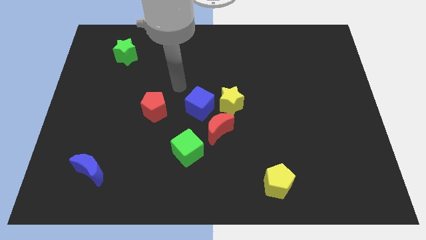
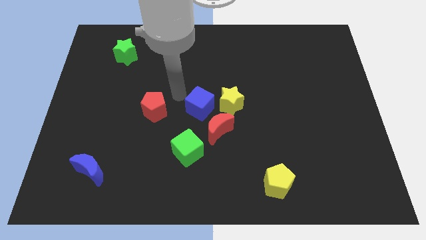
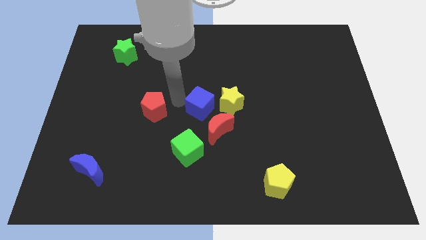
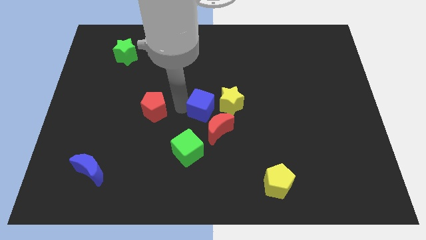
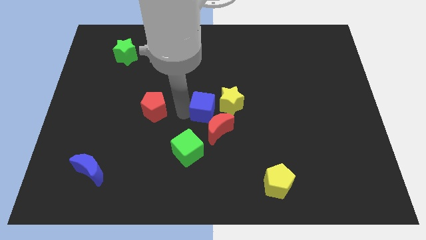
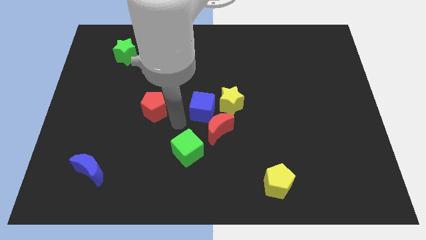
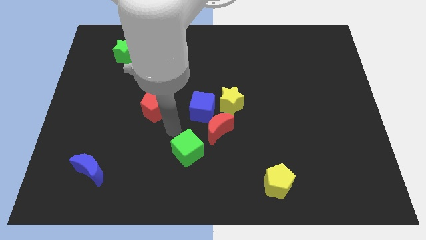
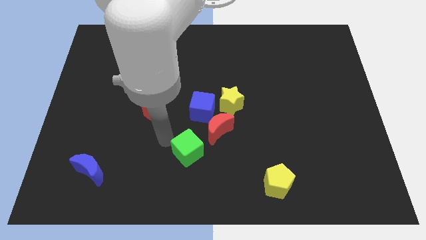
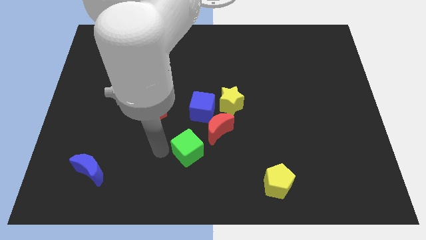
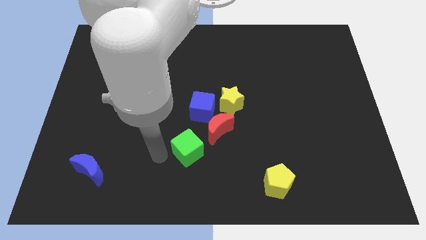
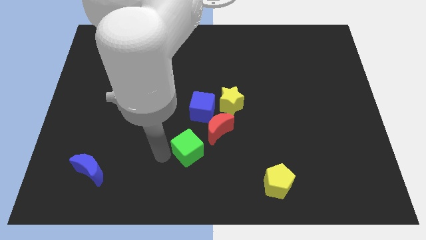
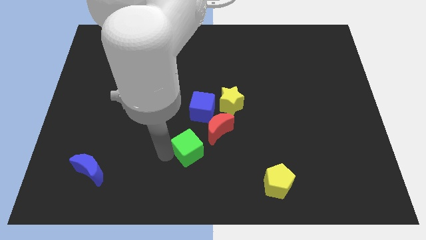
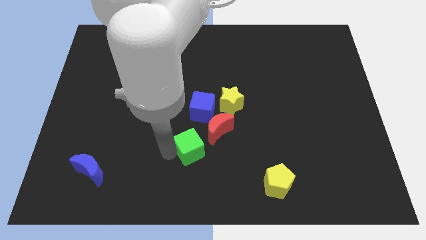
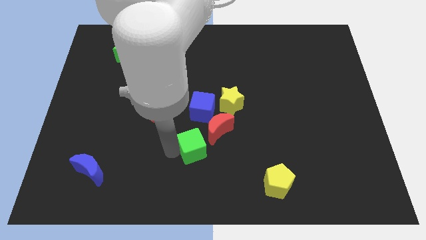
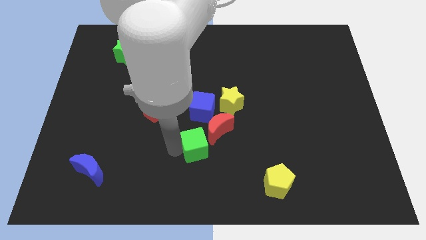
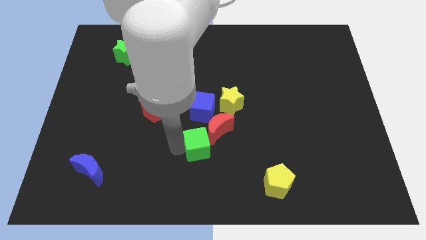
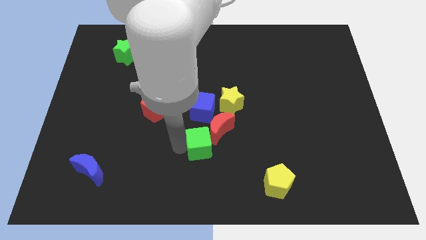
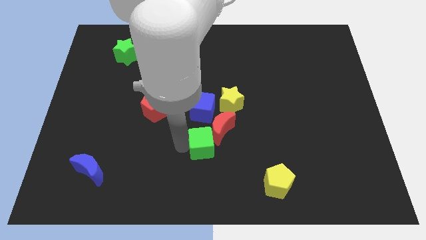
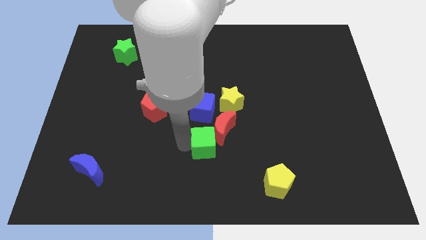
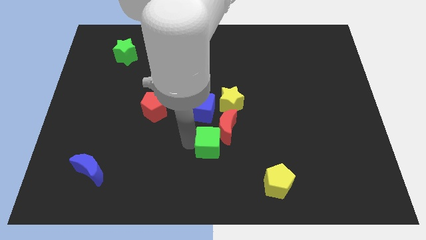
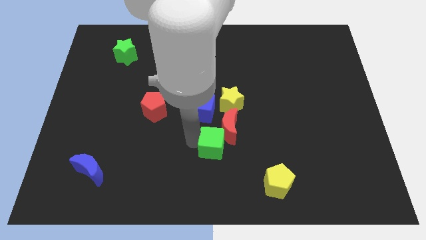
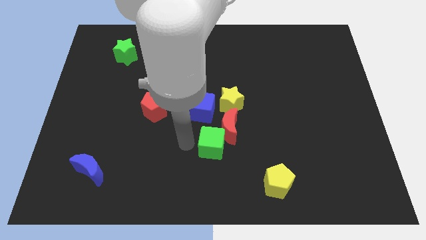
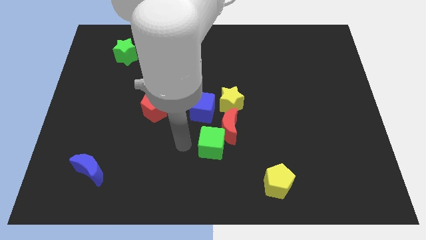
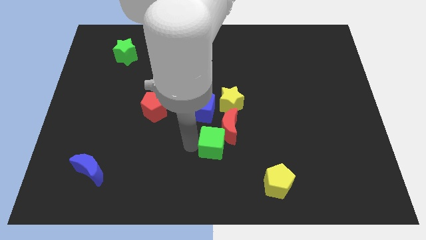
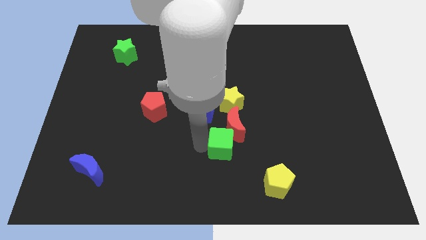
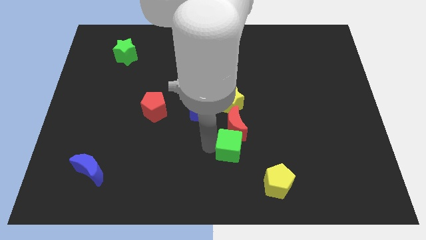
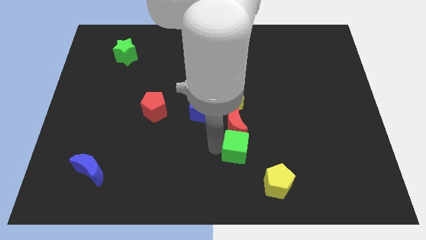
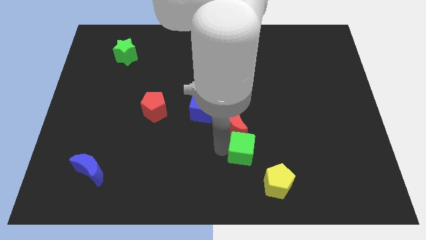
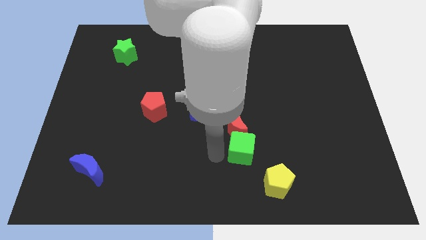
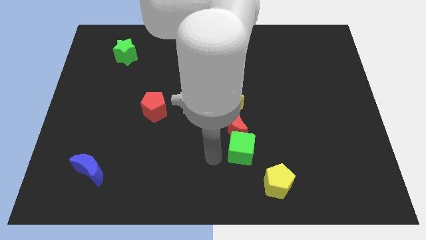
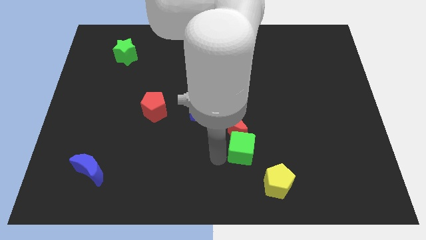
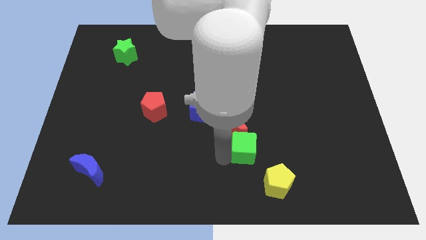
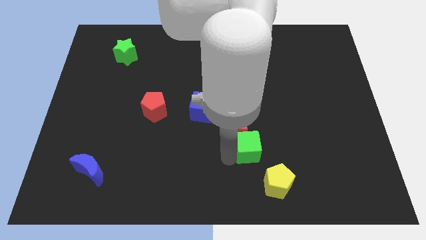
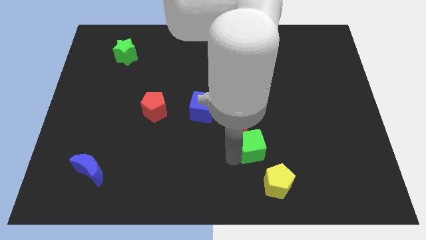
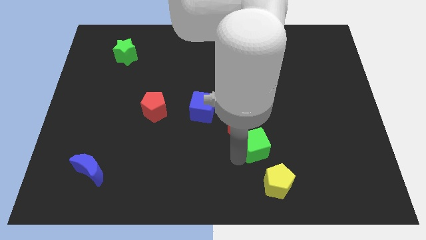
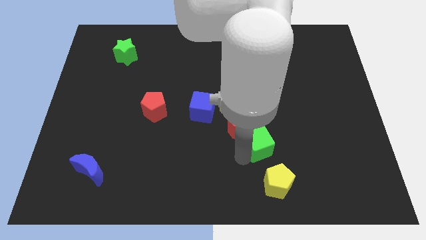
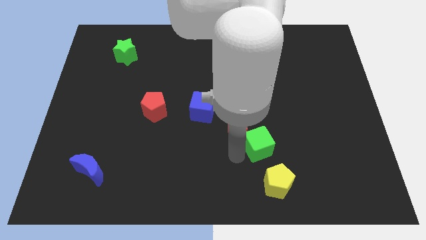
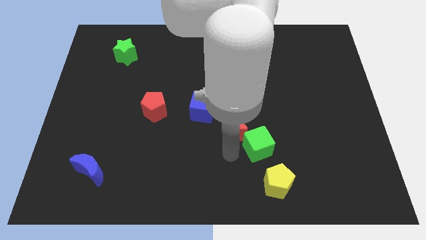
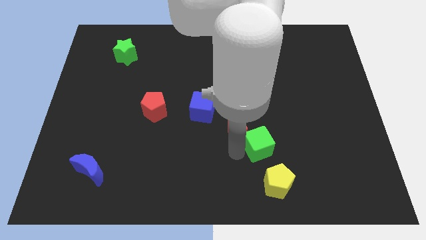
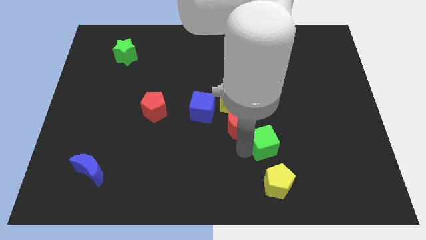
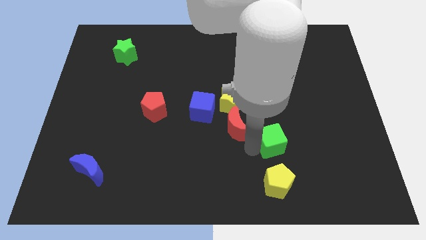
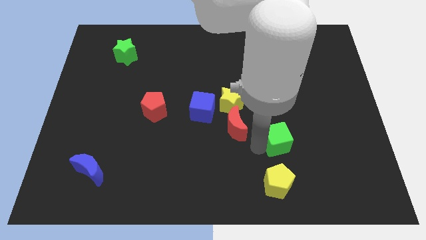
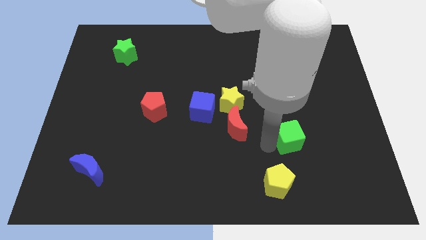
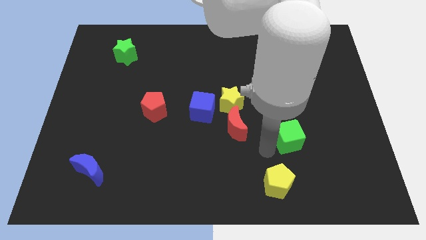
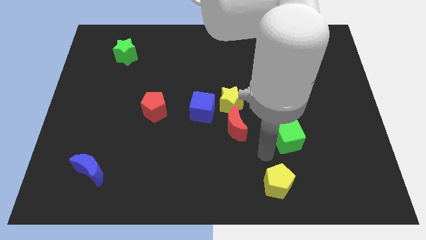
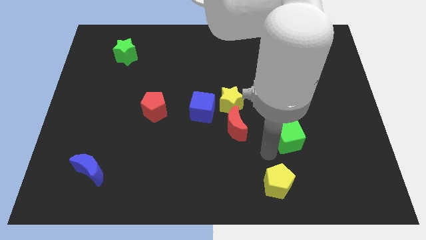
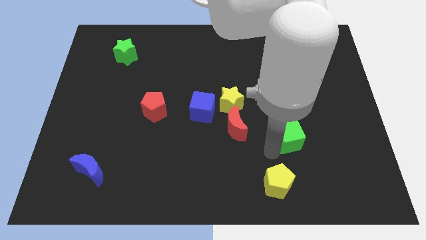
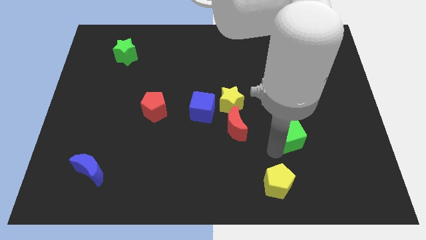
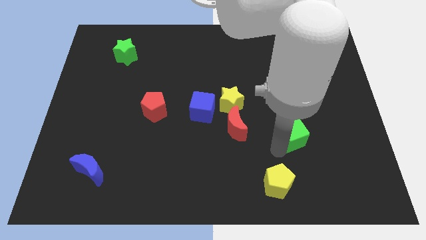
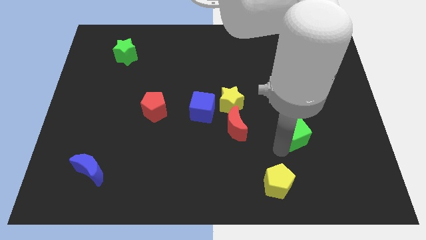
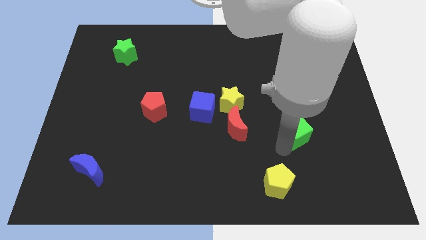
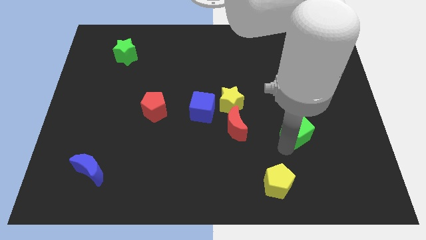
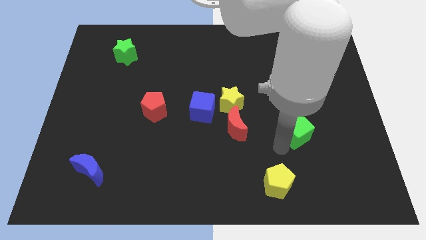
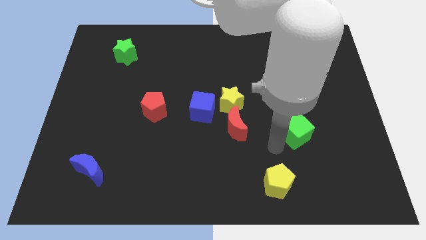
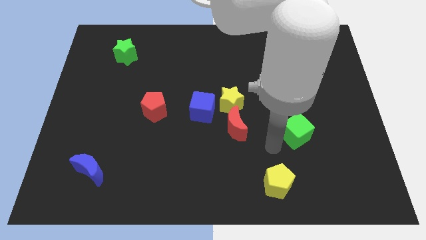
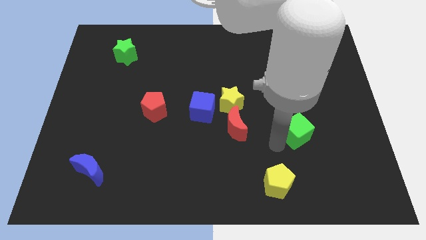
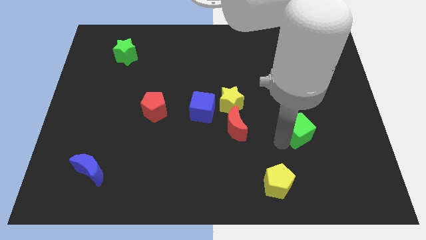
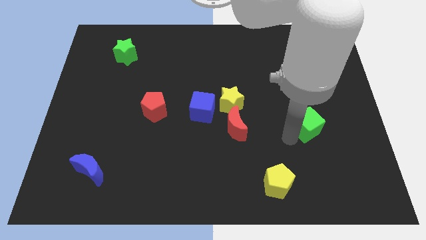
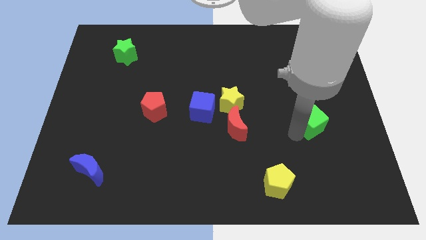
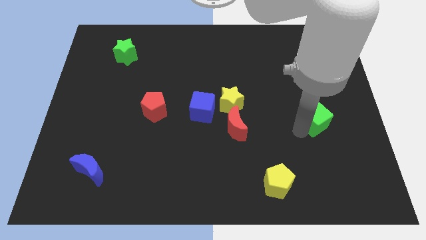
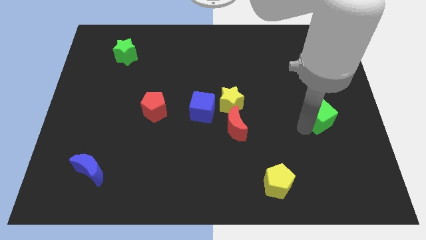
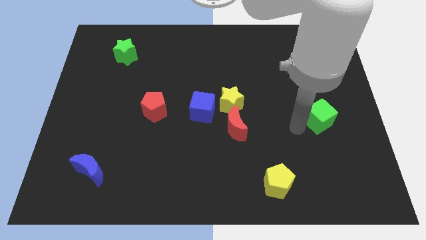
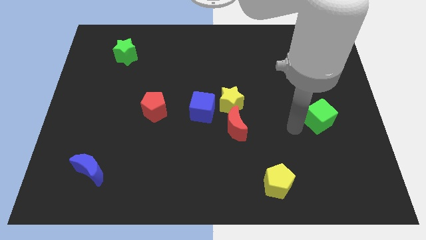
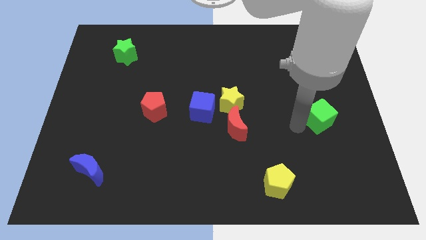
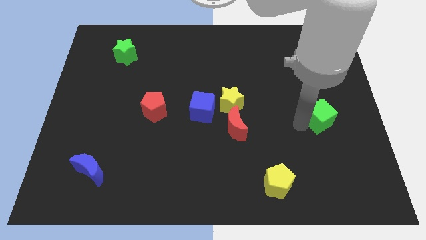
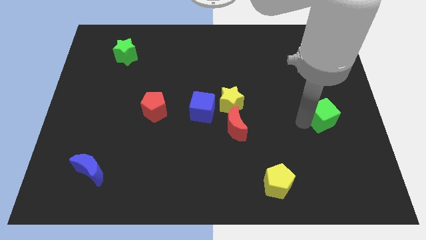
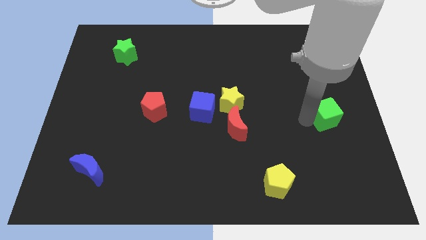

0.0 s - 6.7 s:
move the green cube to the center right
